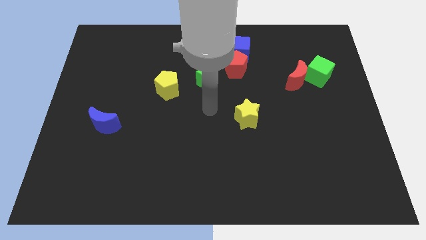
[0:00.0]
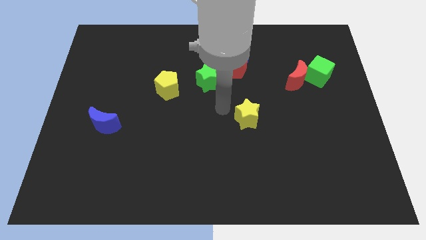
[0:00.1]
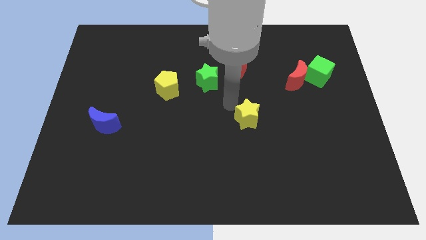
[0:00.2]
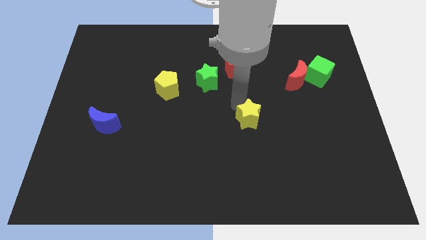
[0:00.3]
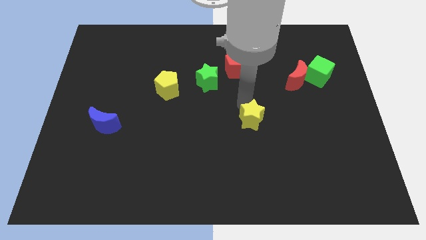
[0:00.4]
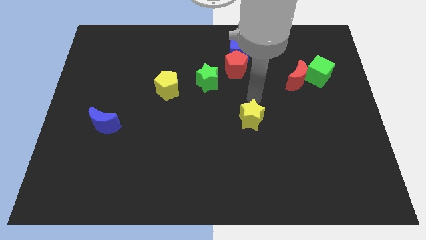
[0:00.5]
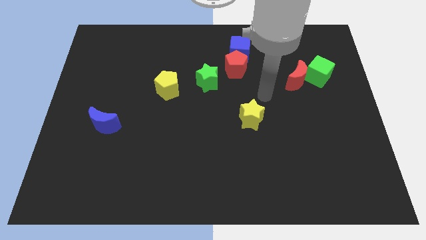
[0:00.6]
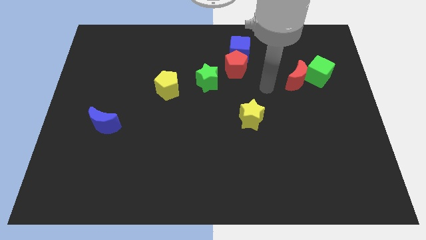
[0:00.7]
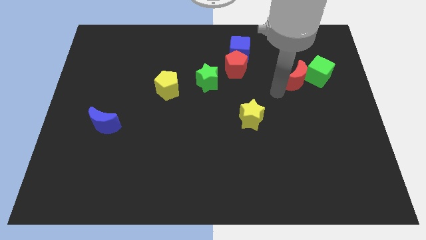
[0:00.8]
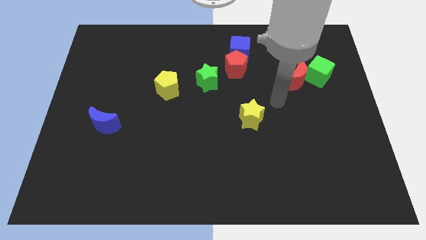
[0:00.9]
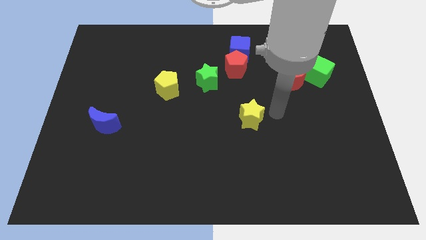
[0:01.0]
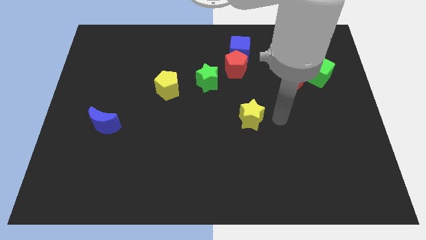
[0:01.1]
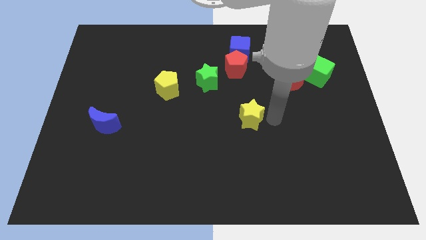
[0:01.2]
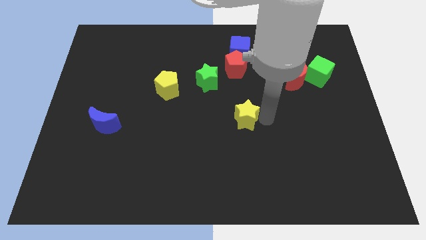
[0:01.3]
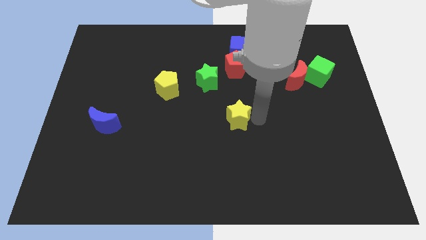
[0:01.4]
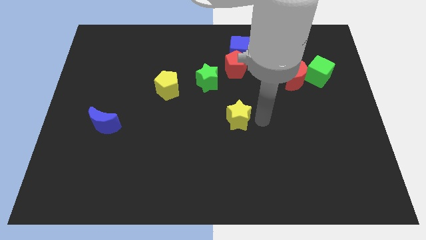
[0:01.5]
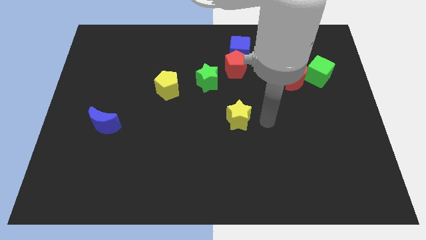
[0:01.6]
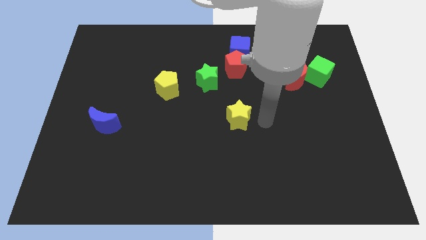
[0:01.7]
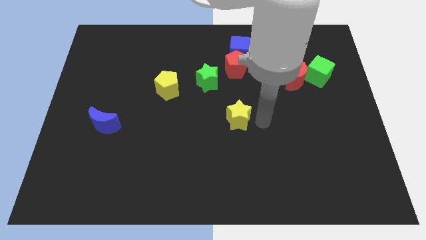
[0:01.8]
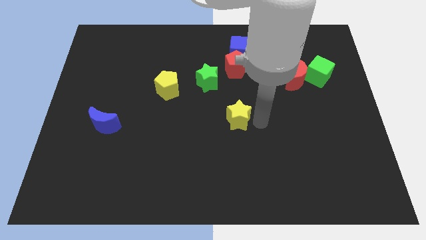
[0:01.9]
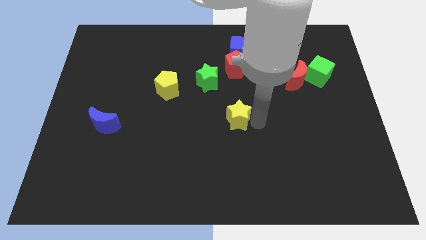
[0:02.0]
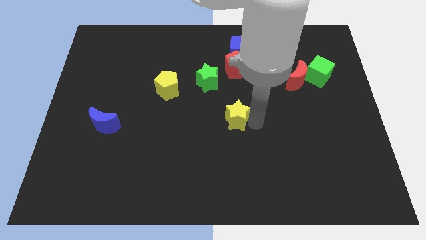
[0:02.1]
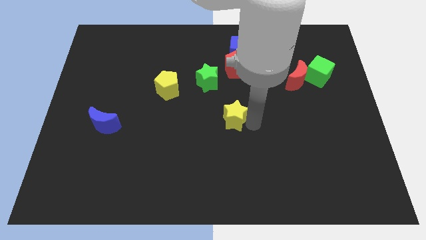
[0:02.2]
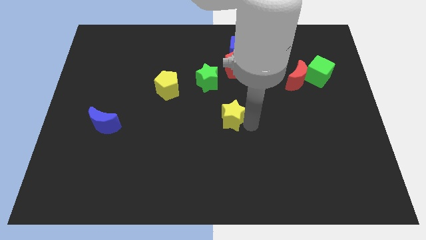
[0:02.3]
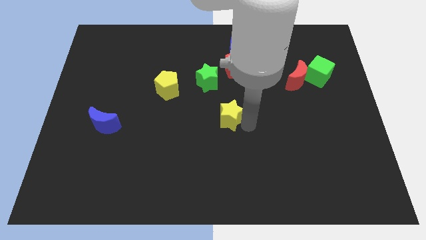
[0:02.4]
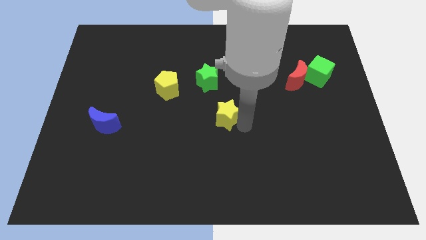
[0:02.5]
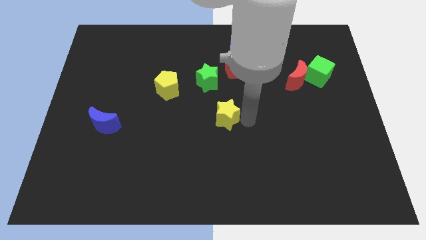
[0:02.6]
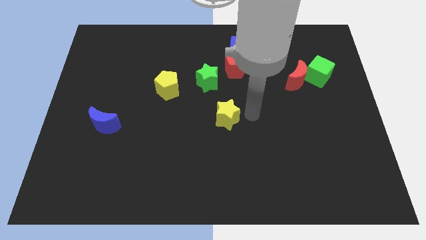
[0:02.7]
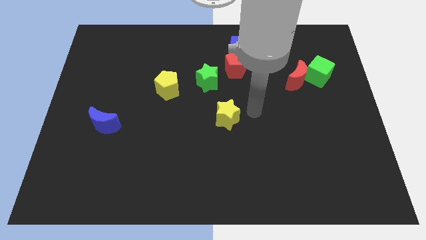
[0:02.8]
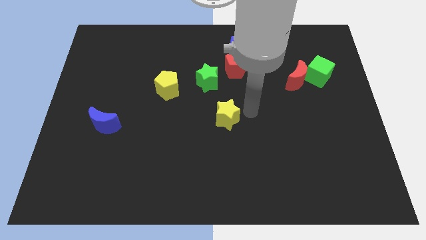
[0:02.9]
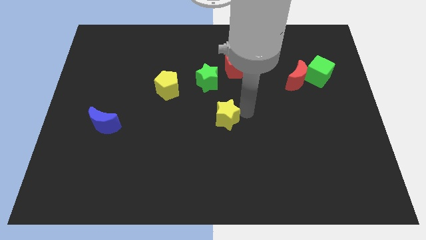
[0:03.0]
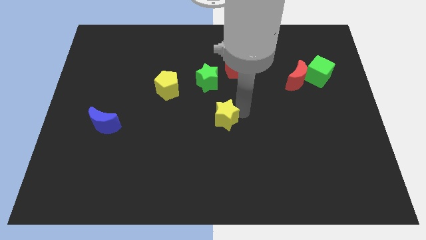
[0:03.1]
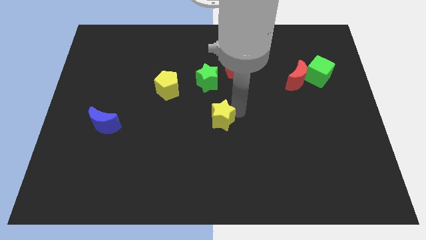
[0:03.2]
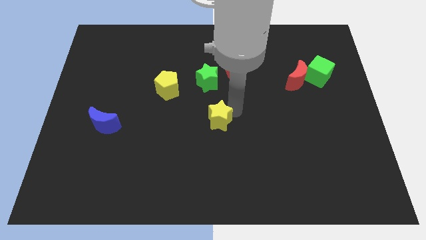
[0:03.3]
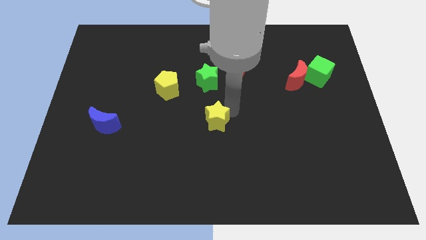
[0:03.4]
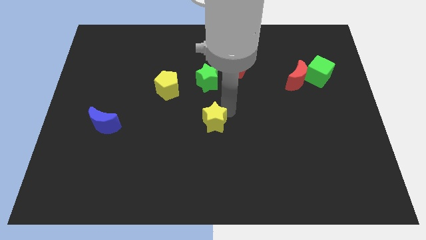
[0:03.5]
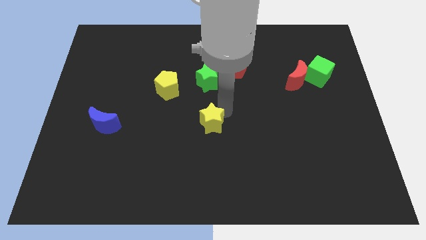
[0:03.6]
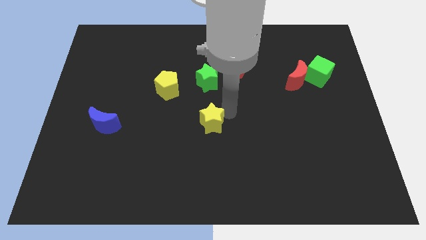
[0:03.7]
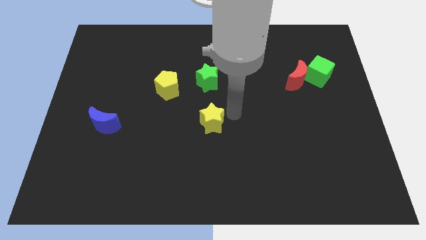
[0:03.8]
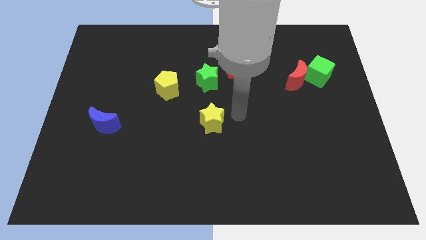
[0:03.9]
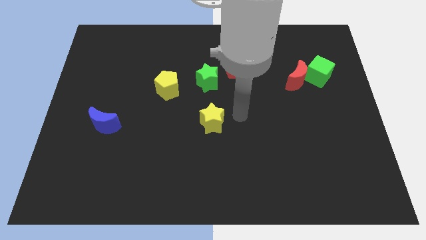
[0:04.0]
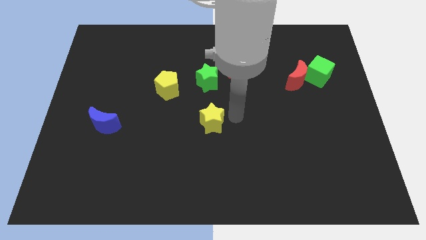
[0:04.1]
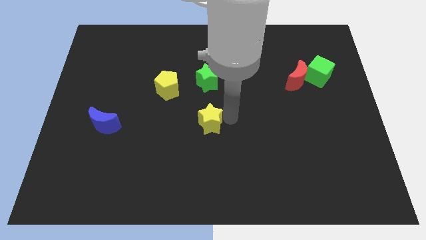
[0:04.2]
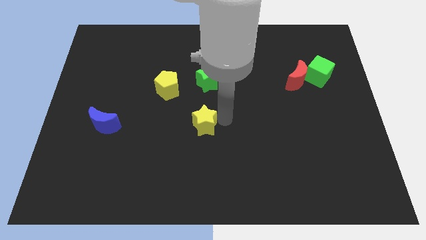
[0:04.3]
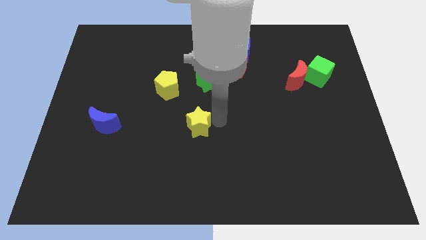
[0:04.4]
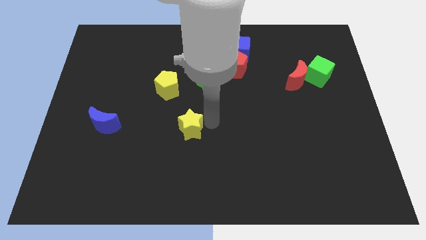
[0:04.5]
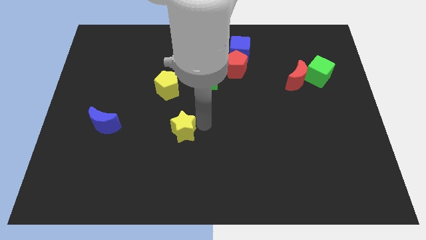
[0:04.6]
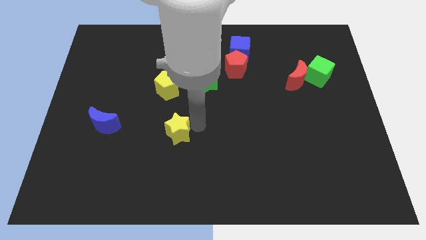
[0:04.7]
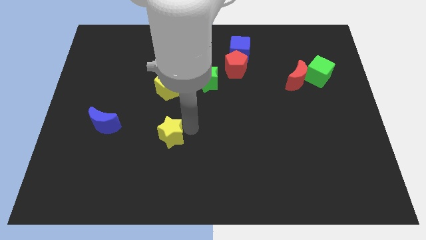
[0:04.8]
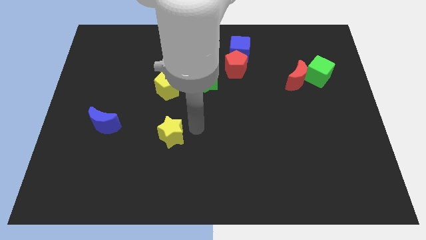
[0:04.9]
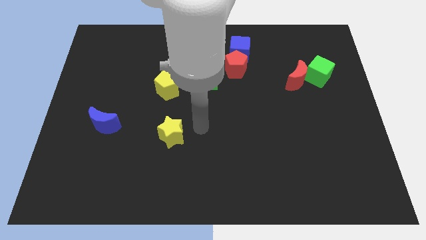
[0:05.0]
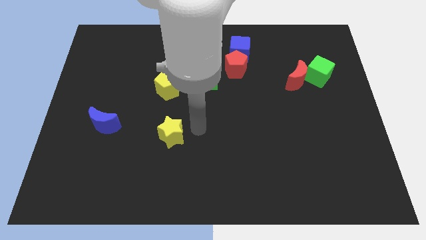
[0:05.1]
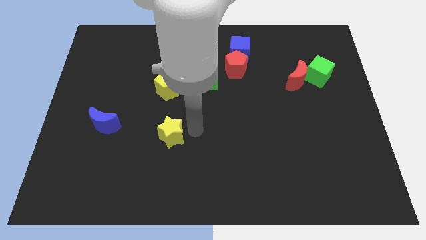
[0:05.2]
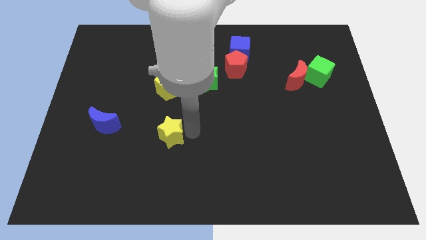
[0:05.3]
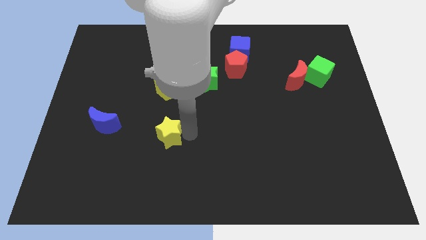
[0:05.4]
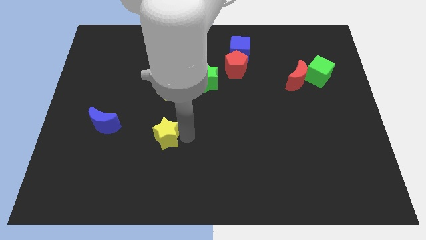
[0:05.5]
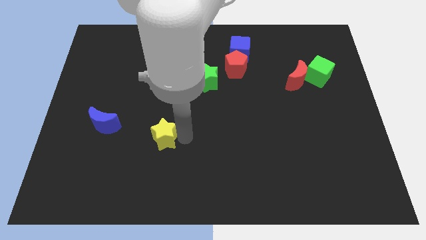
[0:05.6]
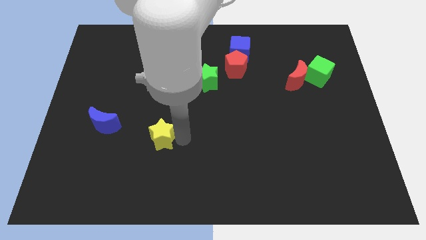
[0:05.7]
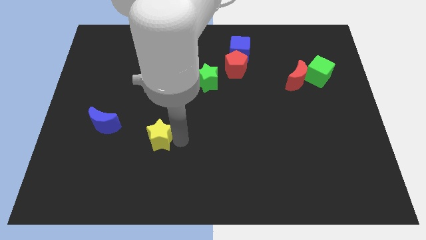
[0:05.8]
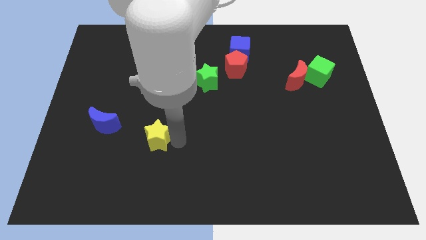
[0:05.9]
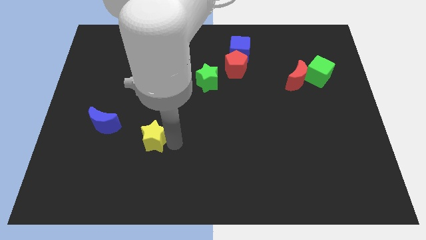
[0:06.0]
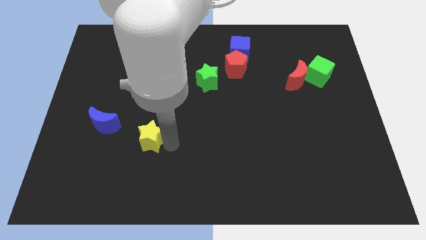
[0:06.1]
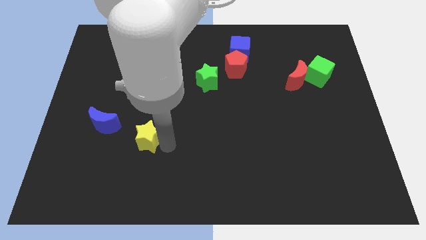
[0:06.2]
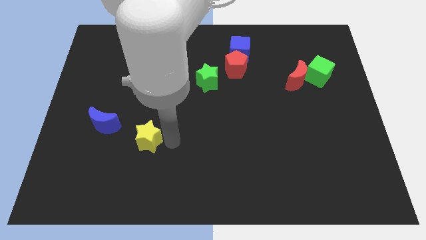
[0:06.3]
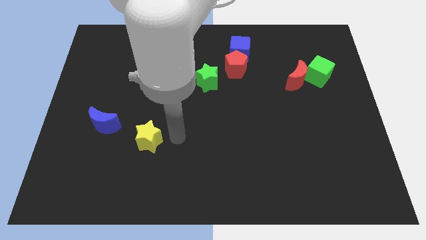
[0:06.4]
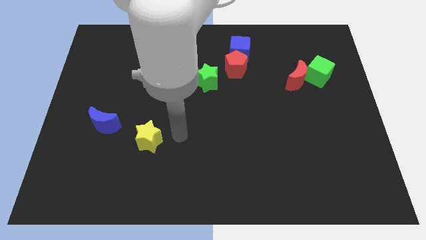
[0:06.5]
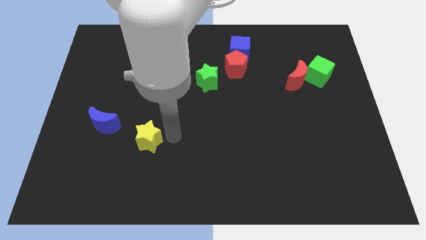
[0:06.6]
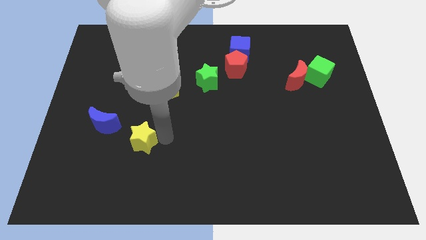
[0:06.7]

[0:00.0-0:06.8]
push the yellow star to the bottom right of the blue moon

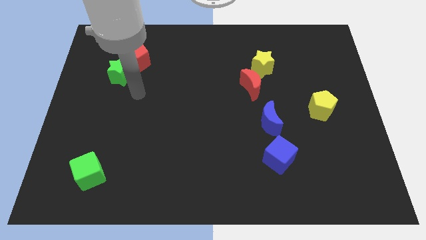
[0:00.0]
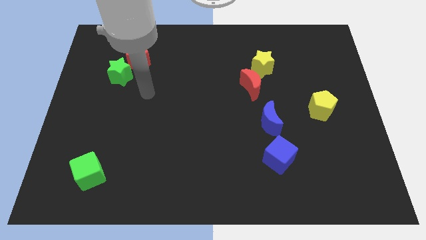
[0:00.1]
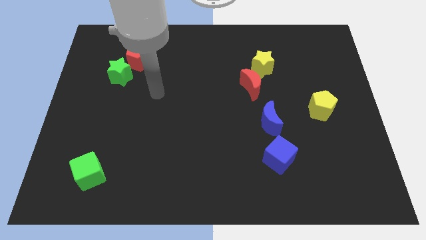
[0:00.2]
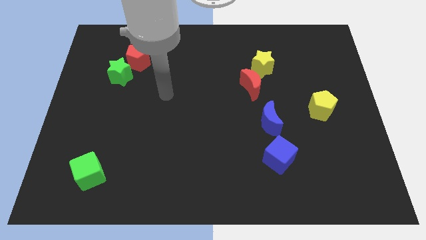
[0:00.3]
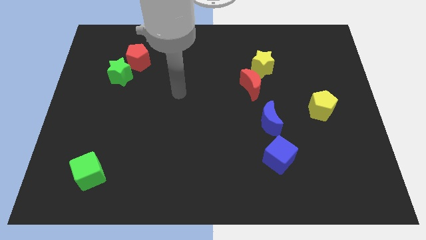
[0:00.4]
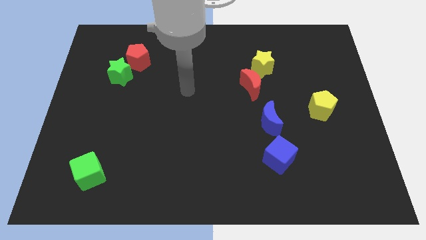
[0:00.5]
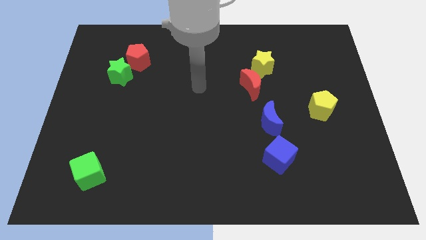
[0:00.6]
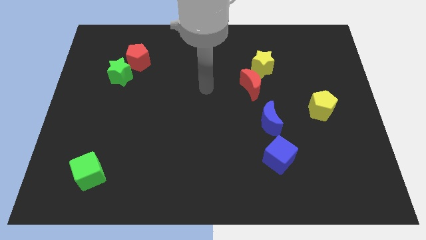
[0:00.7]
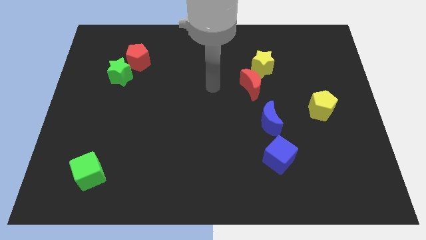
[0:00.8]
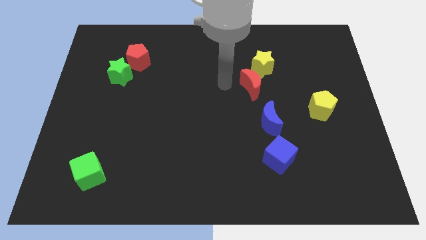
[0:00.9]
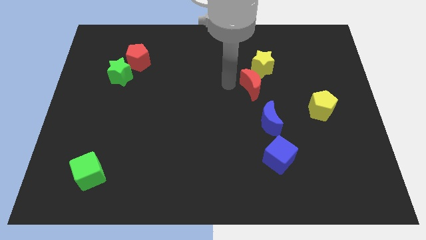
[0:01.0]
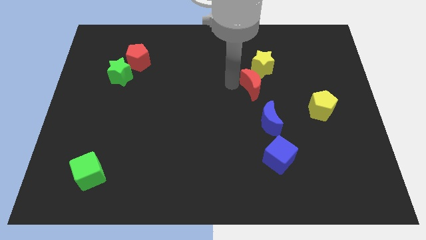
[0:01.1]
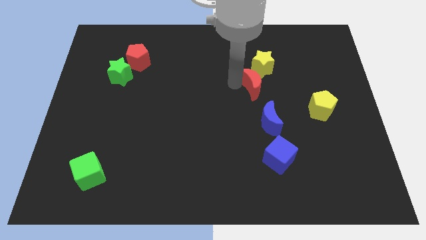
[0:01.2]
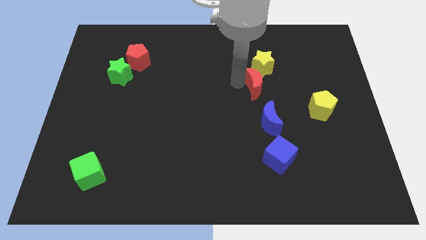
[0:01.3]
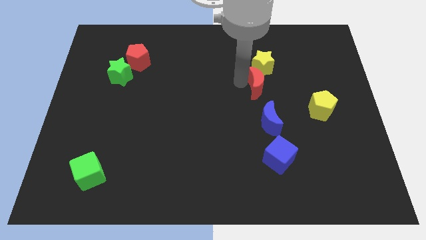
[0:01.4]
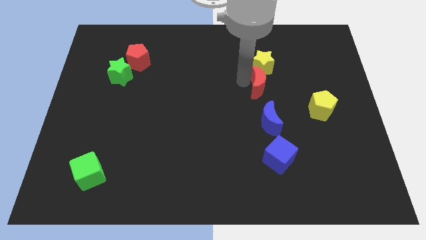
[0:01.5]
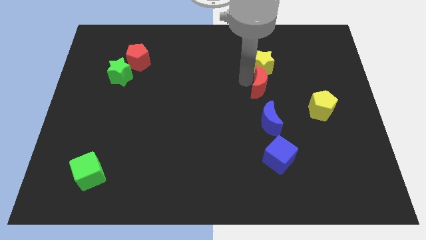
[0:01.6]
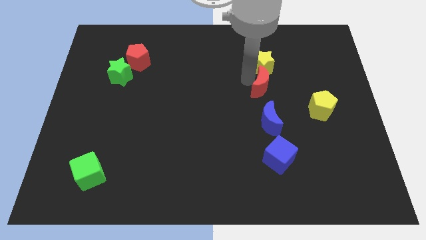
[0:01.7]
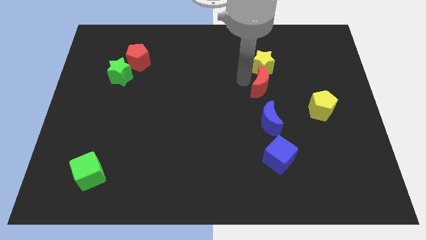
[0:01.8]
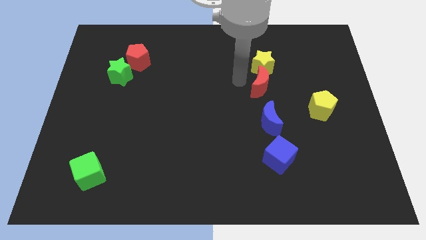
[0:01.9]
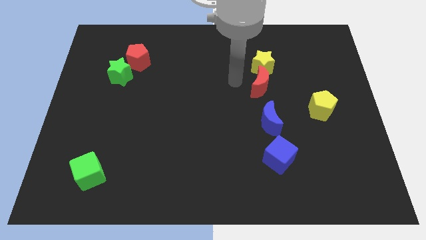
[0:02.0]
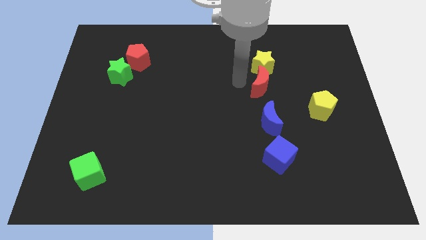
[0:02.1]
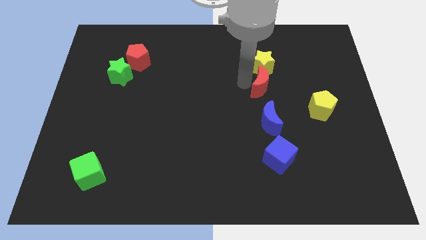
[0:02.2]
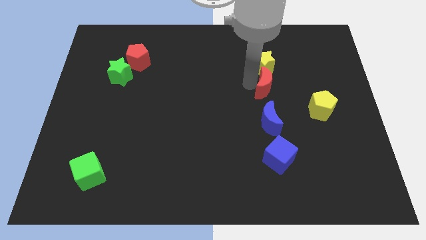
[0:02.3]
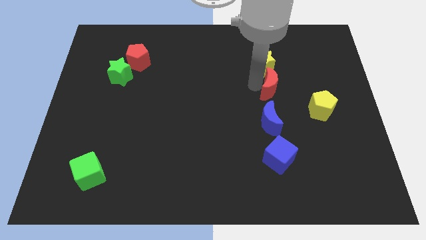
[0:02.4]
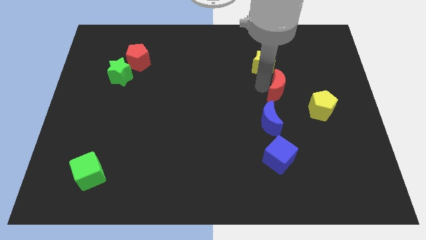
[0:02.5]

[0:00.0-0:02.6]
move the red moon diagonally up and to the left of the yellow pentagon
